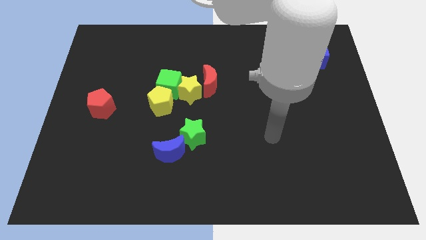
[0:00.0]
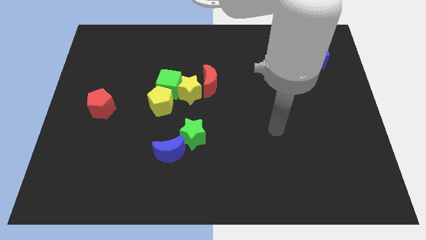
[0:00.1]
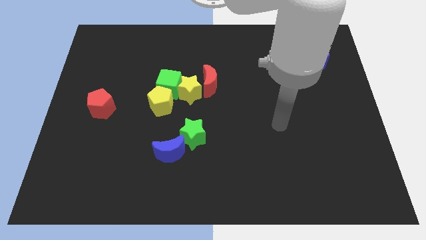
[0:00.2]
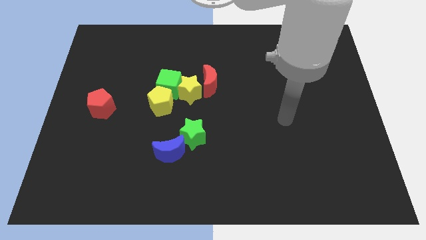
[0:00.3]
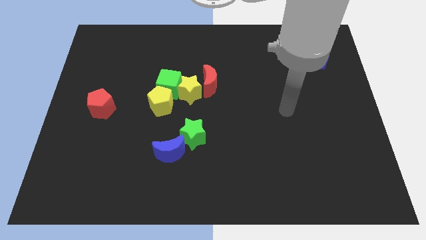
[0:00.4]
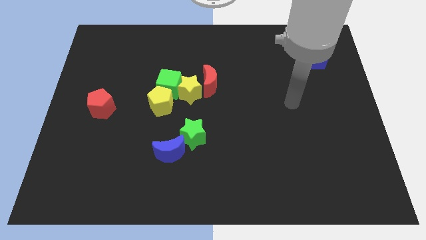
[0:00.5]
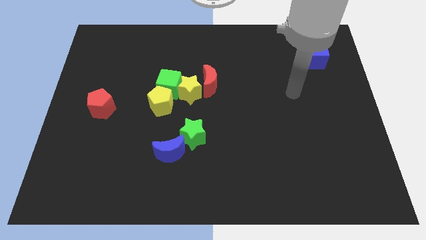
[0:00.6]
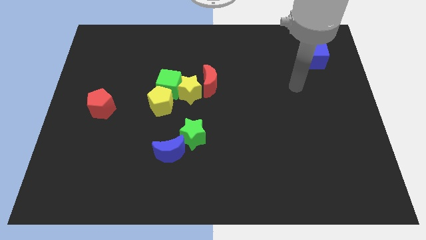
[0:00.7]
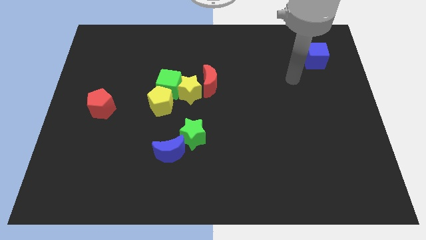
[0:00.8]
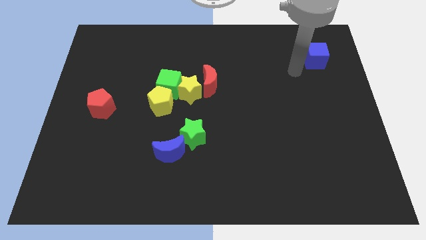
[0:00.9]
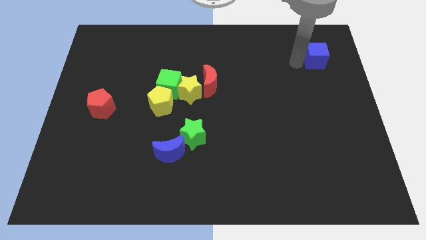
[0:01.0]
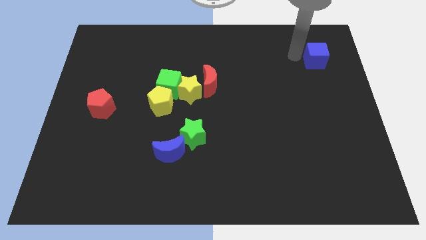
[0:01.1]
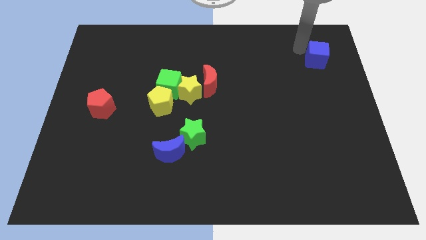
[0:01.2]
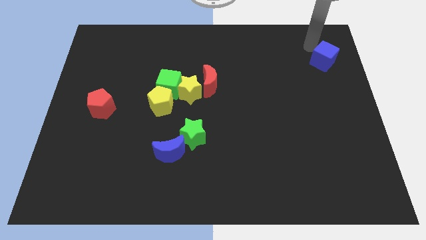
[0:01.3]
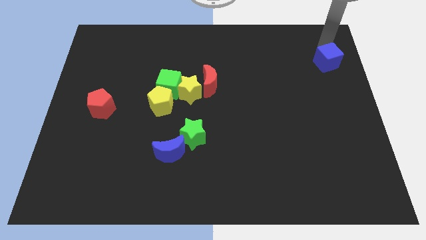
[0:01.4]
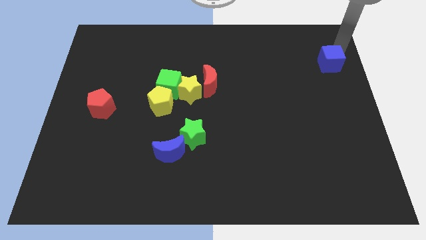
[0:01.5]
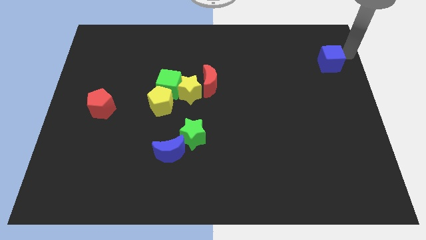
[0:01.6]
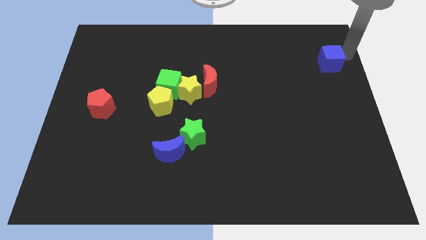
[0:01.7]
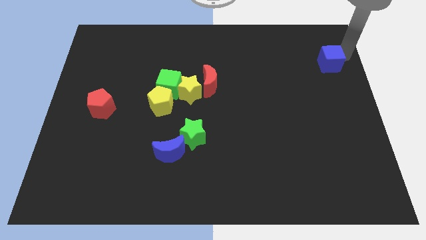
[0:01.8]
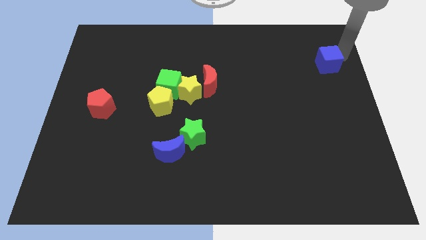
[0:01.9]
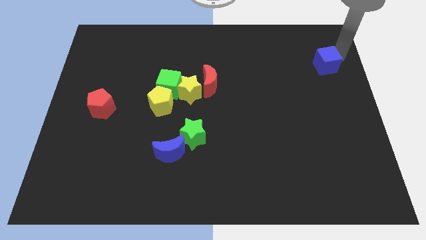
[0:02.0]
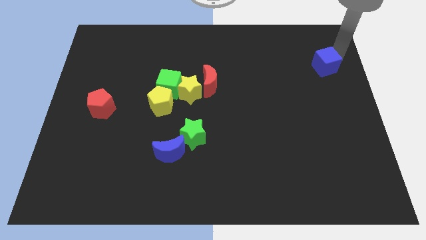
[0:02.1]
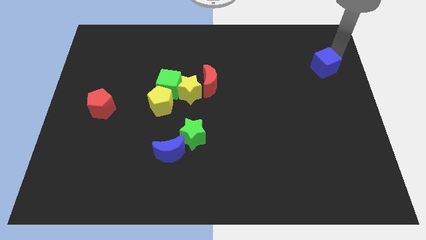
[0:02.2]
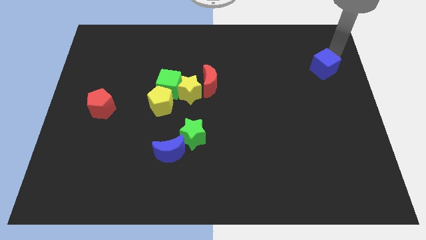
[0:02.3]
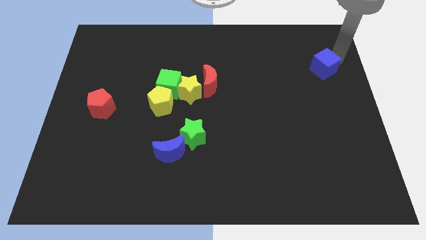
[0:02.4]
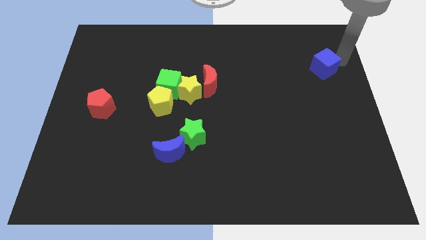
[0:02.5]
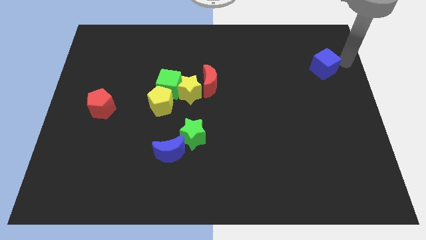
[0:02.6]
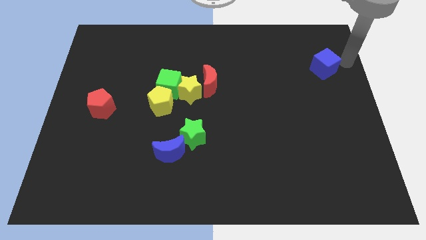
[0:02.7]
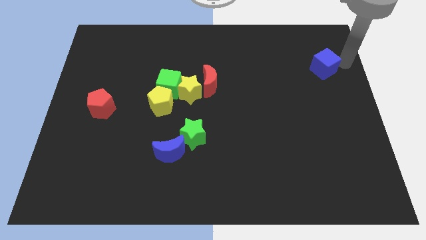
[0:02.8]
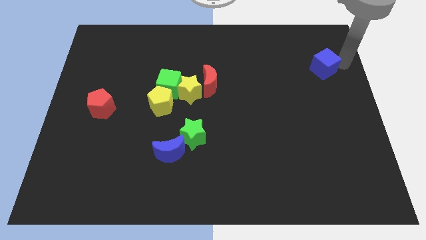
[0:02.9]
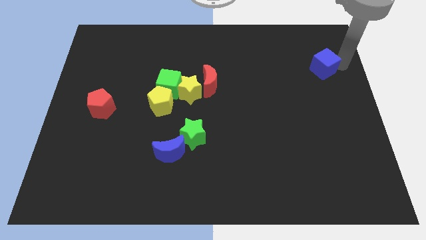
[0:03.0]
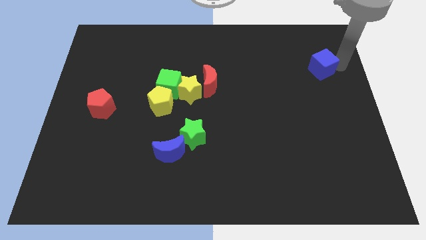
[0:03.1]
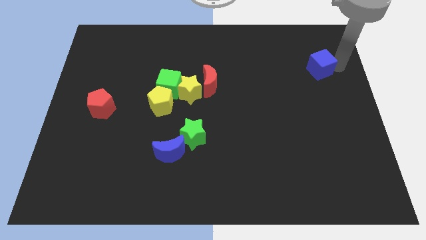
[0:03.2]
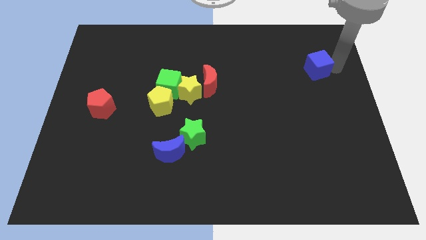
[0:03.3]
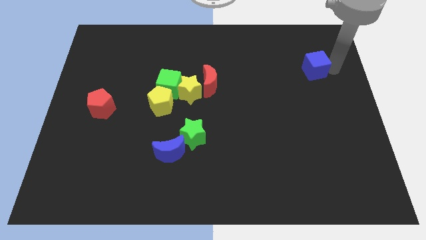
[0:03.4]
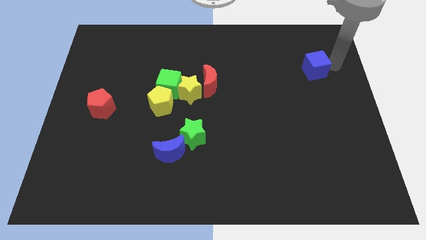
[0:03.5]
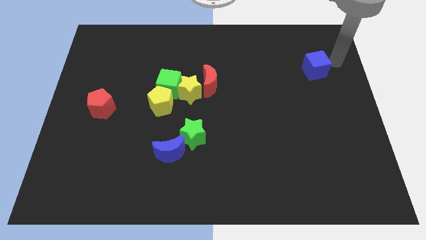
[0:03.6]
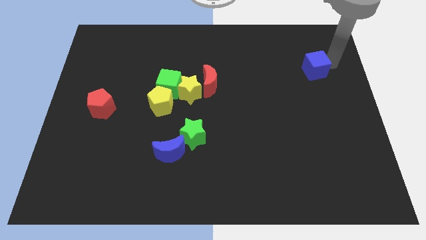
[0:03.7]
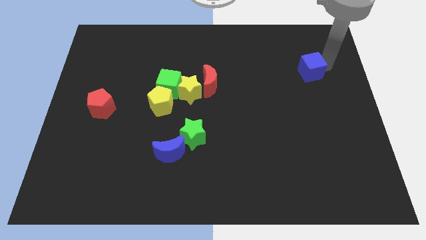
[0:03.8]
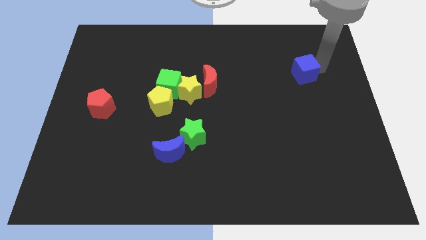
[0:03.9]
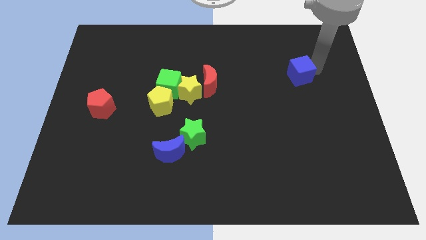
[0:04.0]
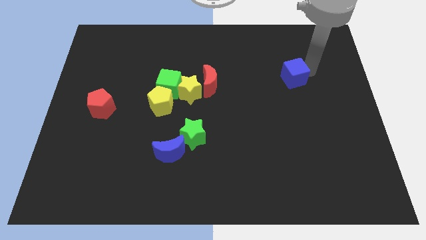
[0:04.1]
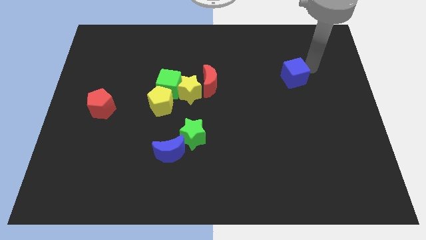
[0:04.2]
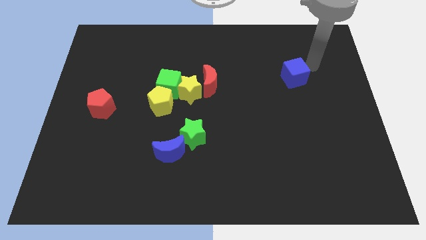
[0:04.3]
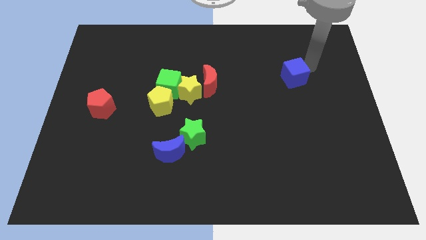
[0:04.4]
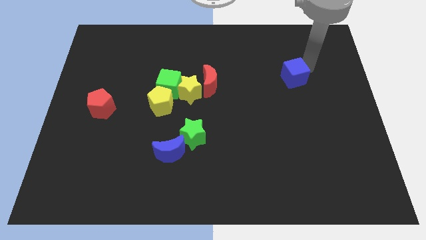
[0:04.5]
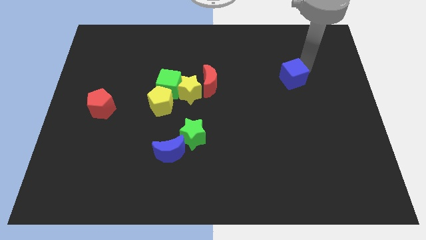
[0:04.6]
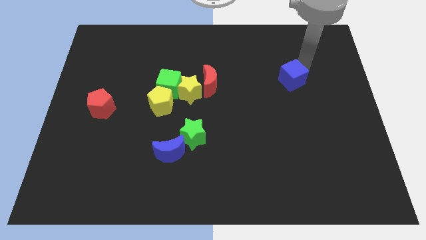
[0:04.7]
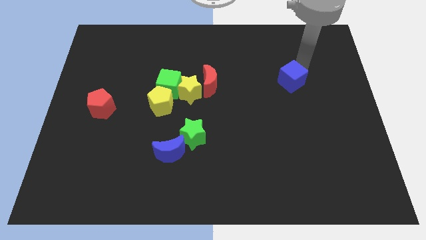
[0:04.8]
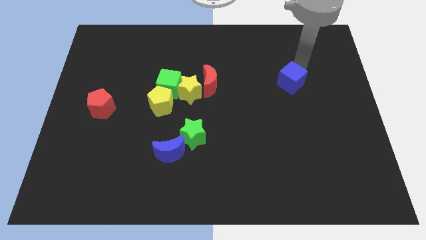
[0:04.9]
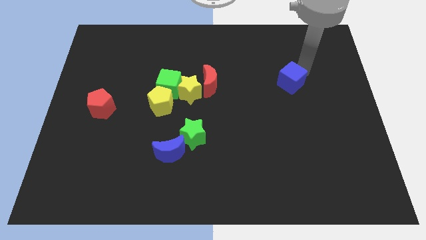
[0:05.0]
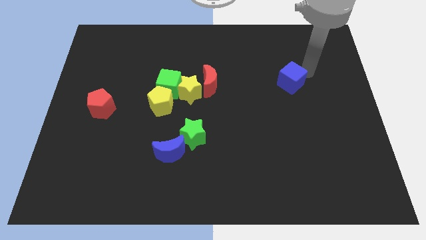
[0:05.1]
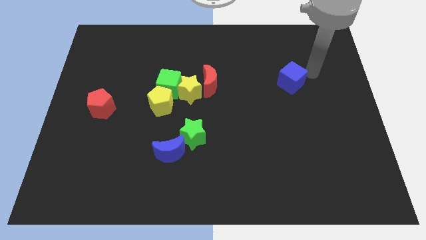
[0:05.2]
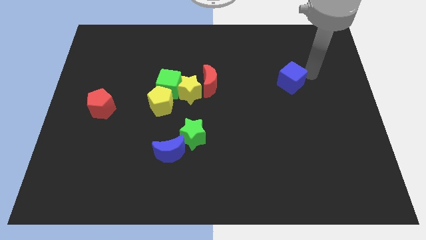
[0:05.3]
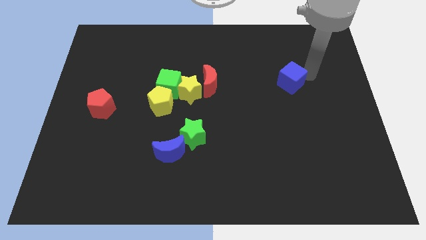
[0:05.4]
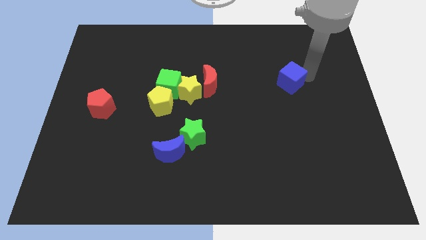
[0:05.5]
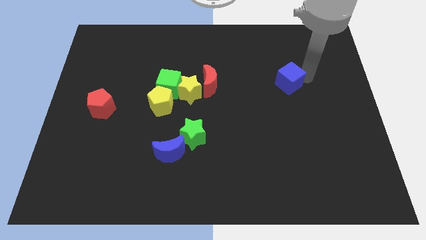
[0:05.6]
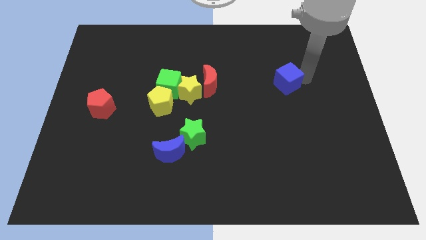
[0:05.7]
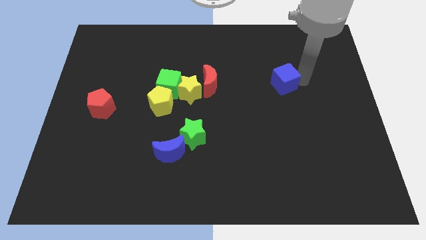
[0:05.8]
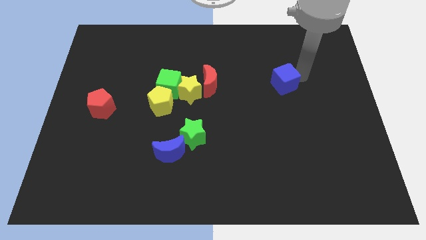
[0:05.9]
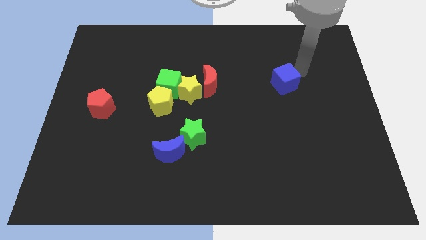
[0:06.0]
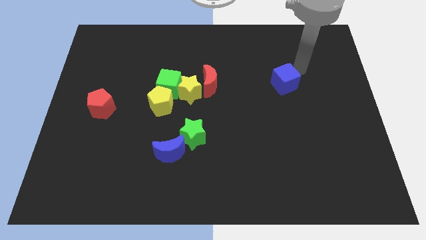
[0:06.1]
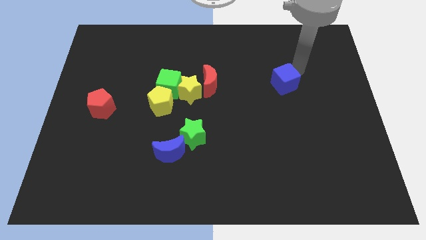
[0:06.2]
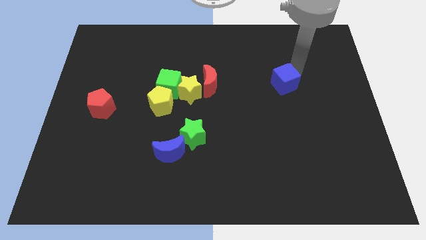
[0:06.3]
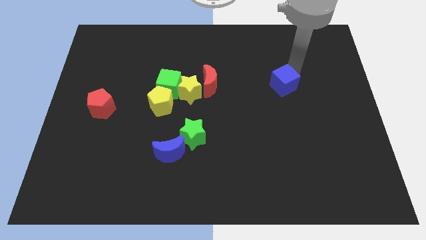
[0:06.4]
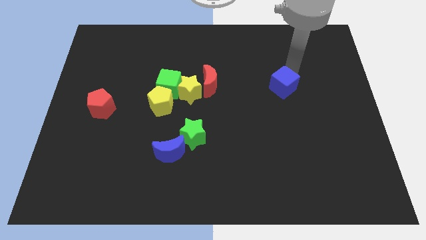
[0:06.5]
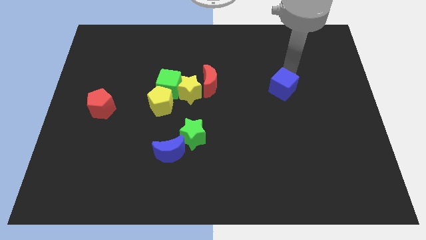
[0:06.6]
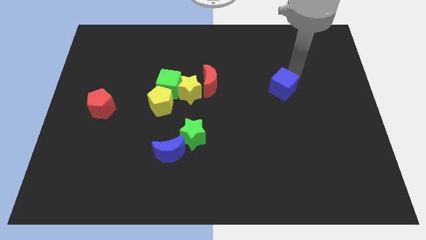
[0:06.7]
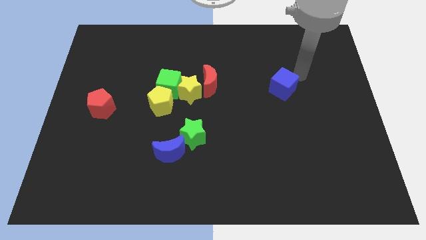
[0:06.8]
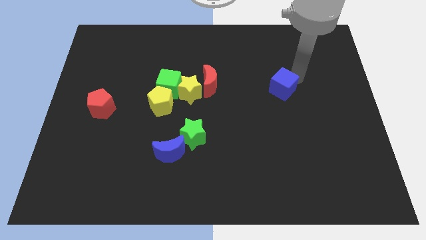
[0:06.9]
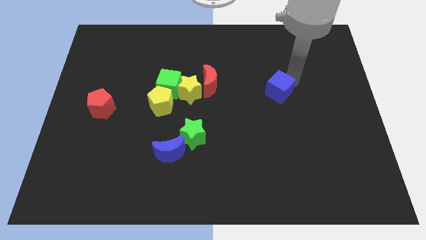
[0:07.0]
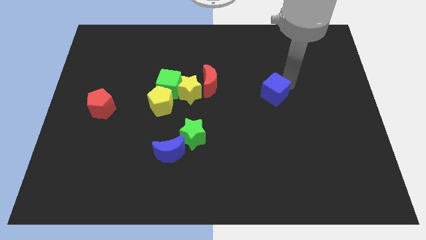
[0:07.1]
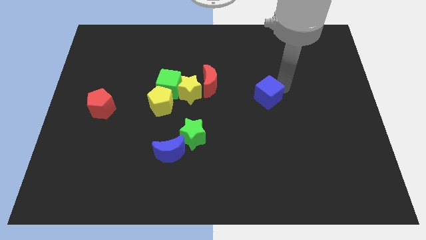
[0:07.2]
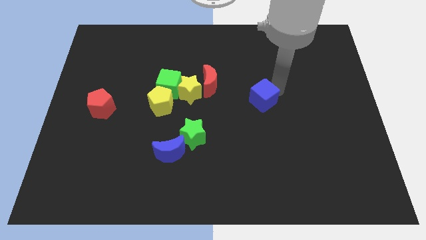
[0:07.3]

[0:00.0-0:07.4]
push the blue cube down and left diagonally

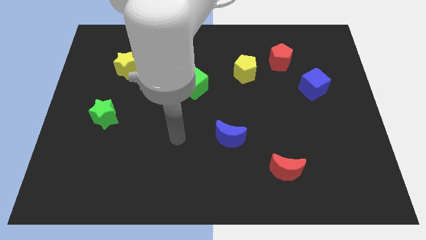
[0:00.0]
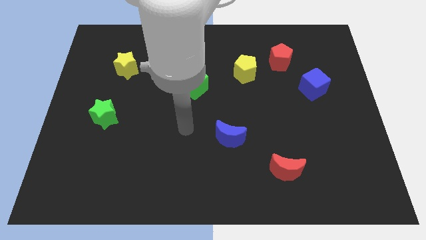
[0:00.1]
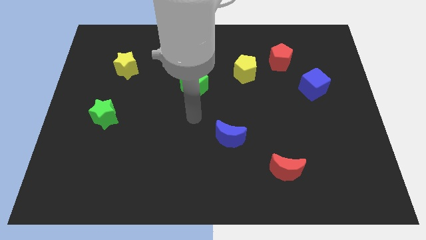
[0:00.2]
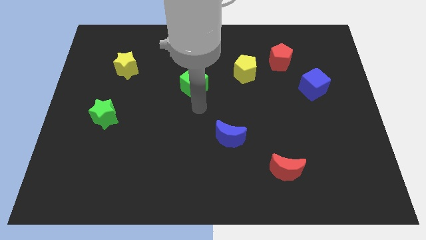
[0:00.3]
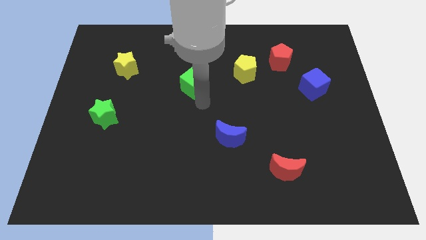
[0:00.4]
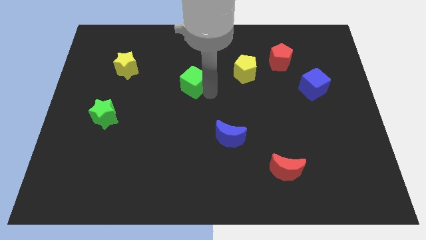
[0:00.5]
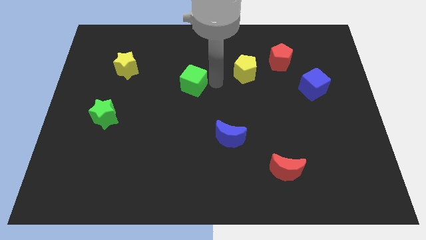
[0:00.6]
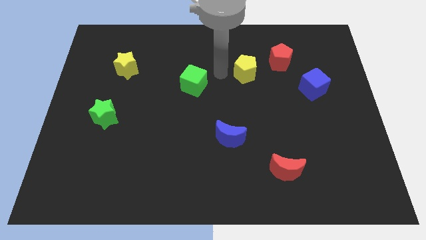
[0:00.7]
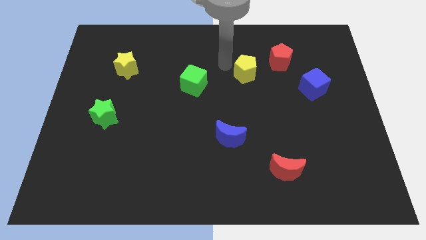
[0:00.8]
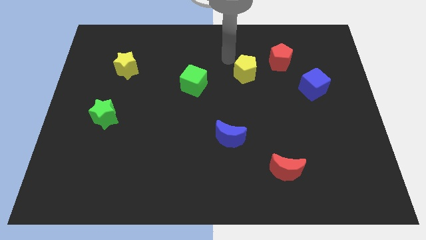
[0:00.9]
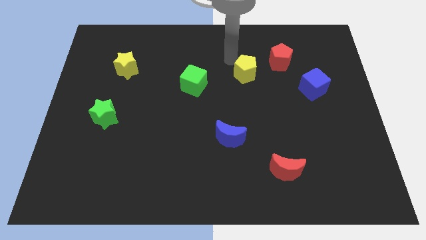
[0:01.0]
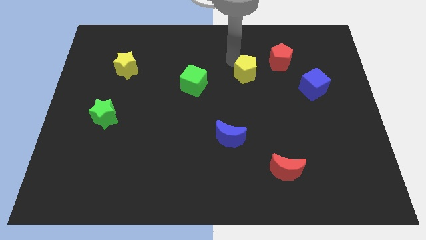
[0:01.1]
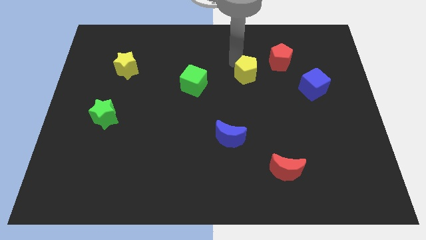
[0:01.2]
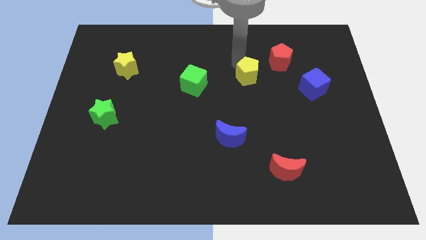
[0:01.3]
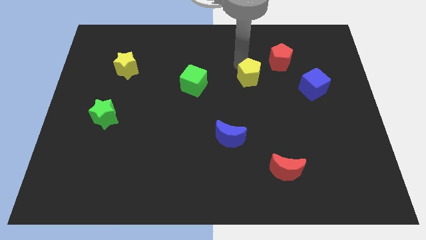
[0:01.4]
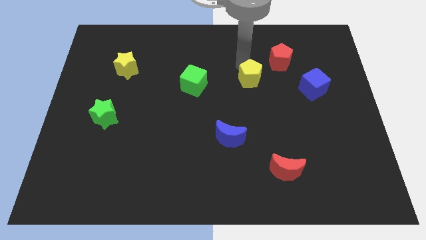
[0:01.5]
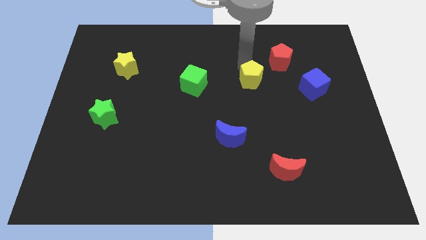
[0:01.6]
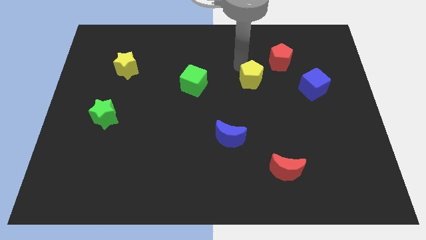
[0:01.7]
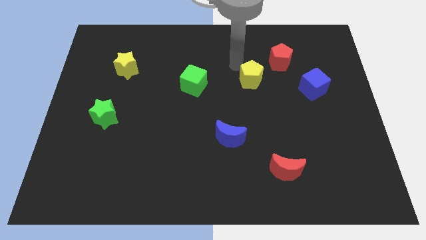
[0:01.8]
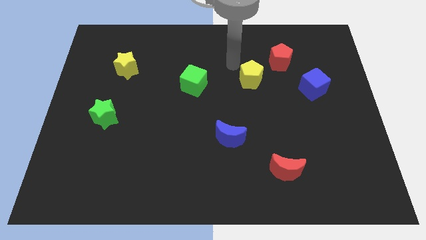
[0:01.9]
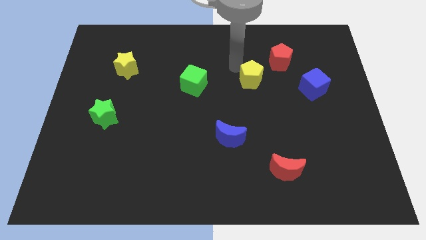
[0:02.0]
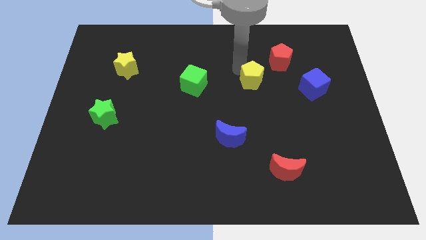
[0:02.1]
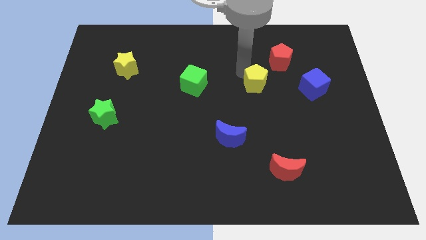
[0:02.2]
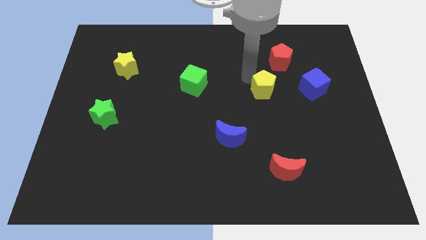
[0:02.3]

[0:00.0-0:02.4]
move the yellow pentagon somewhat down and then right
